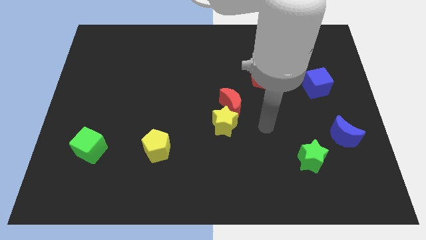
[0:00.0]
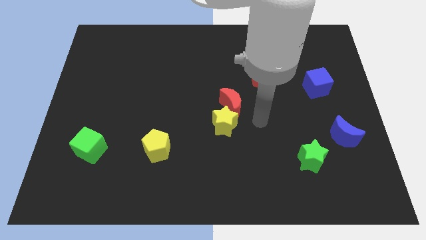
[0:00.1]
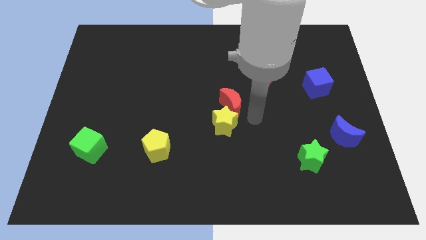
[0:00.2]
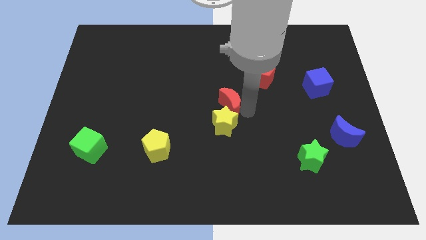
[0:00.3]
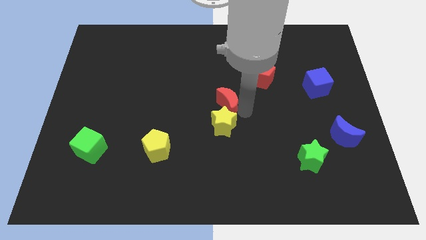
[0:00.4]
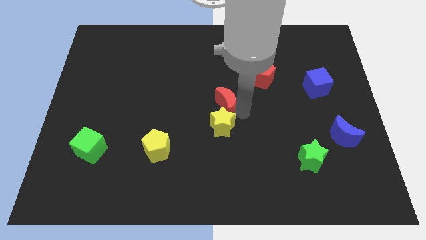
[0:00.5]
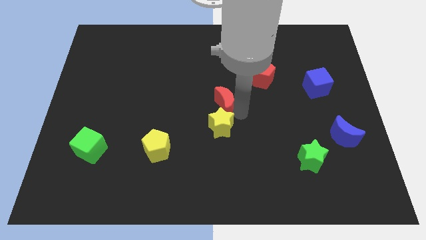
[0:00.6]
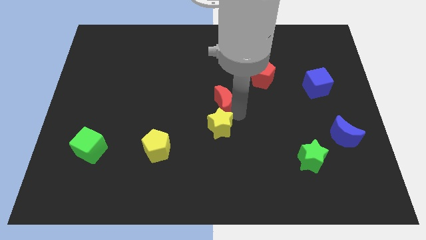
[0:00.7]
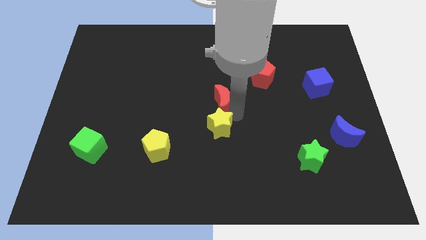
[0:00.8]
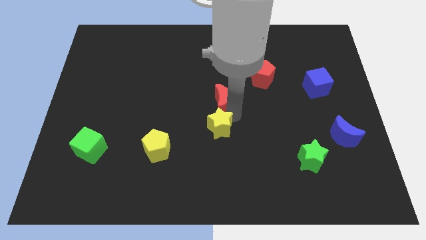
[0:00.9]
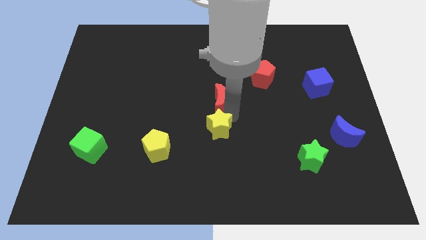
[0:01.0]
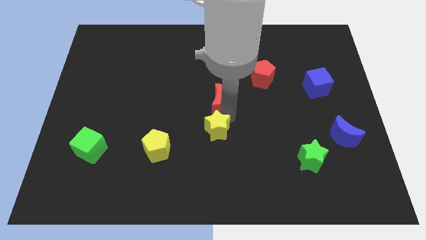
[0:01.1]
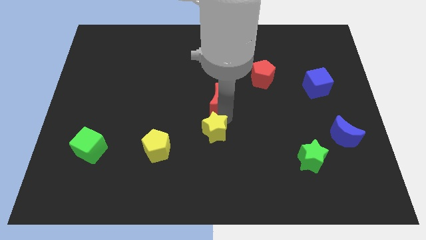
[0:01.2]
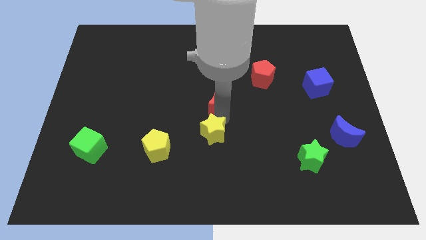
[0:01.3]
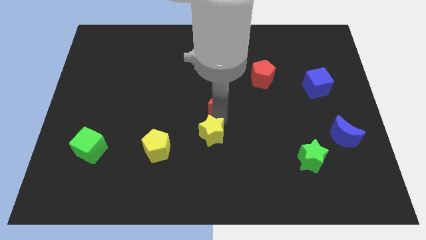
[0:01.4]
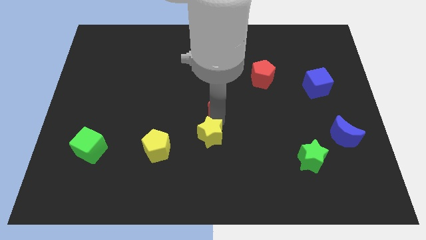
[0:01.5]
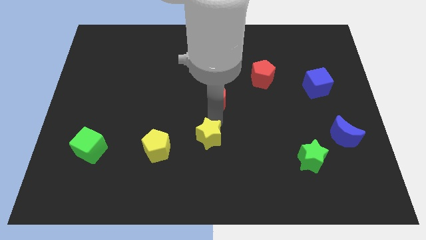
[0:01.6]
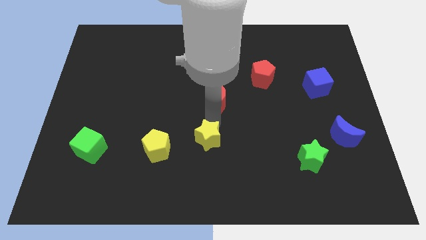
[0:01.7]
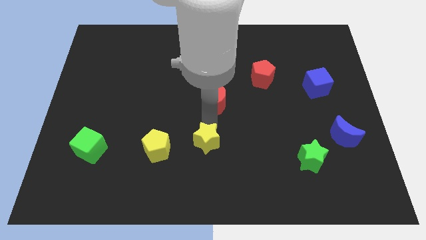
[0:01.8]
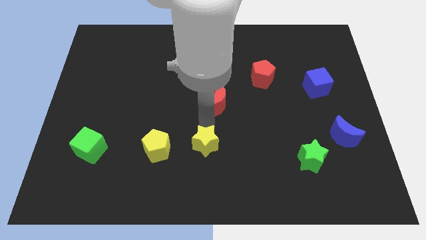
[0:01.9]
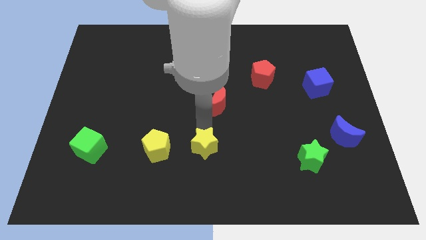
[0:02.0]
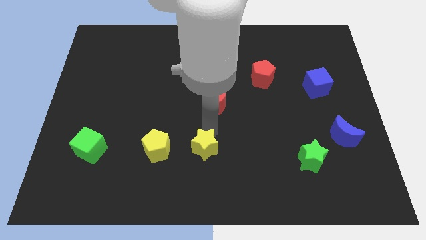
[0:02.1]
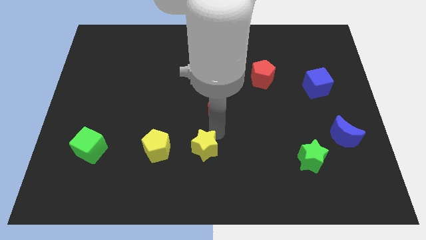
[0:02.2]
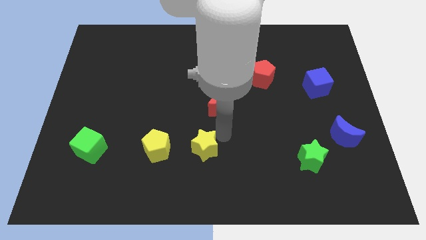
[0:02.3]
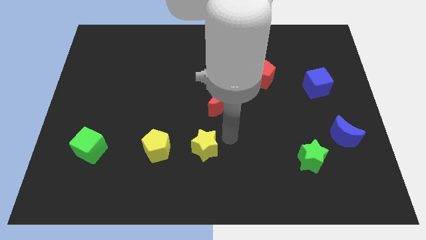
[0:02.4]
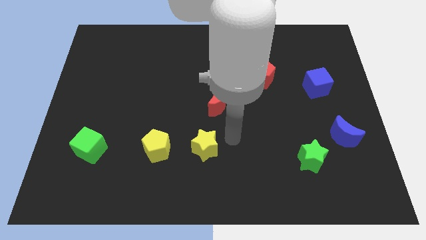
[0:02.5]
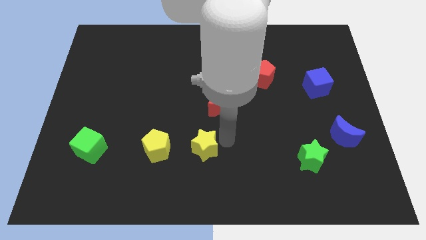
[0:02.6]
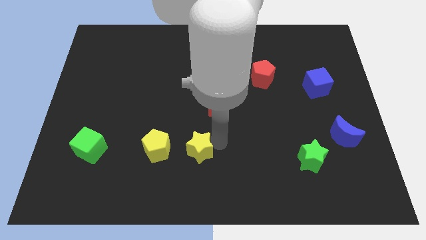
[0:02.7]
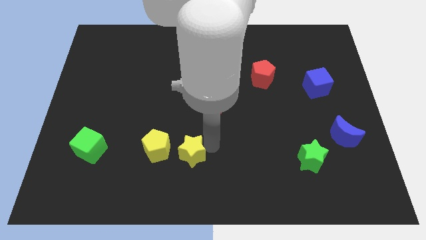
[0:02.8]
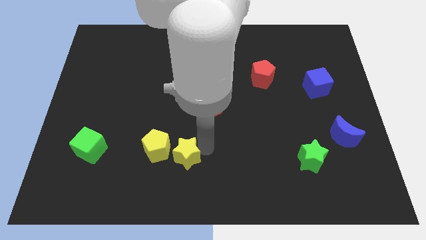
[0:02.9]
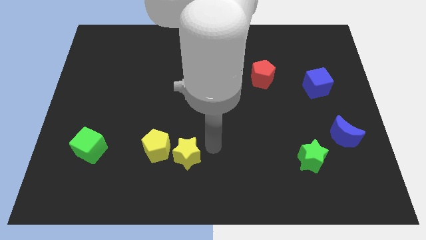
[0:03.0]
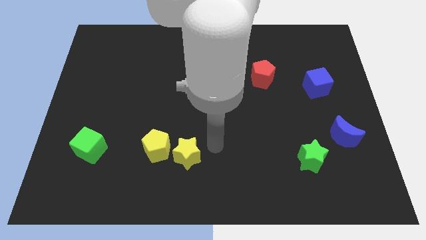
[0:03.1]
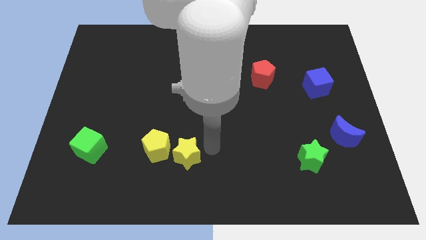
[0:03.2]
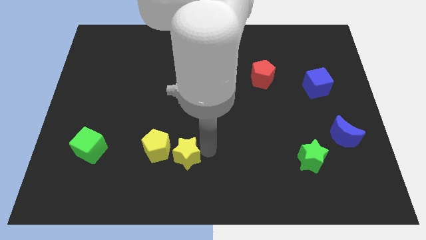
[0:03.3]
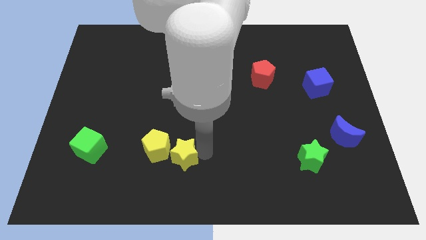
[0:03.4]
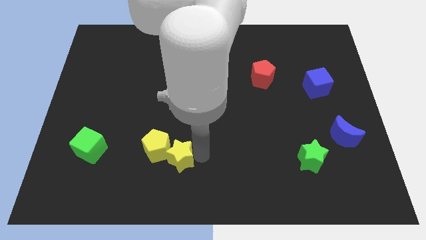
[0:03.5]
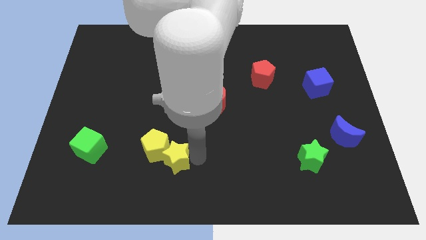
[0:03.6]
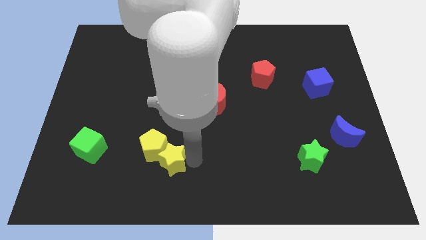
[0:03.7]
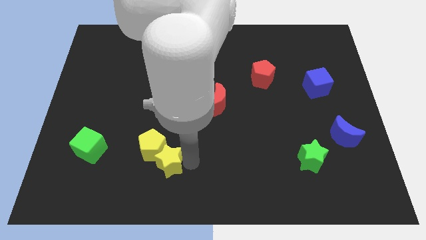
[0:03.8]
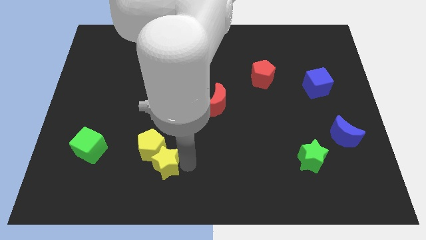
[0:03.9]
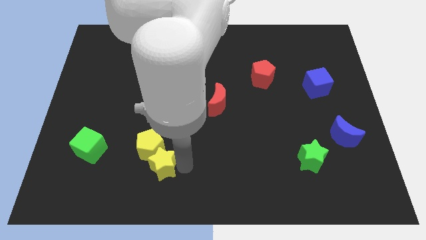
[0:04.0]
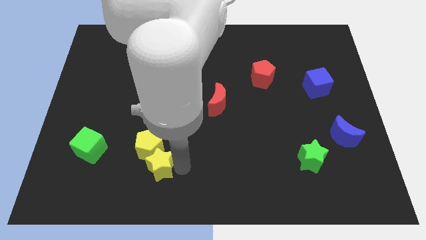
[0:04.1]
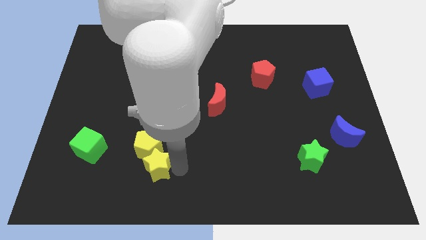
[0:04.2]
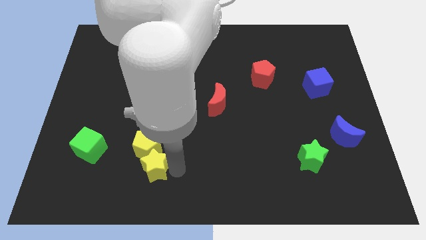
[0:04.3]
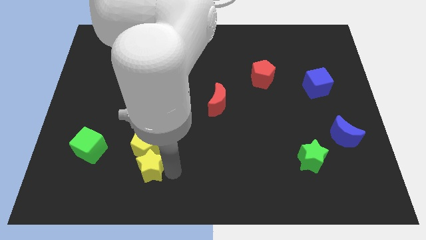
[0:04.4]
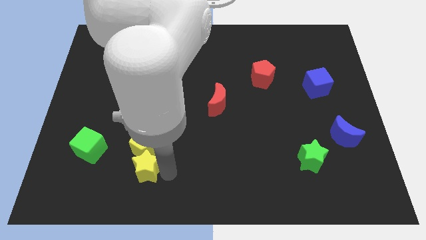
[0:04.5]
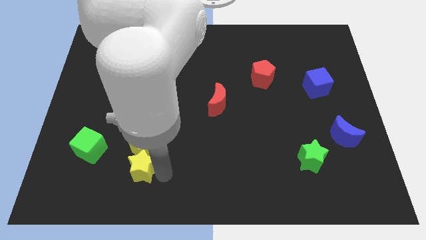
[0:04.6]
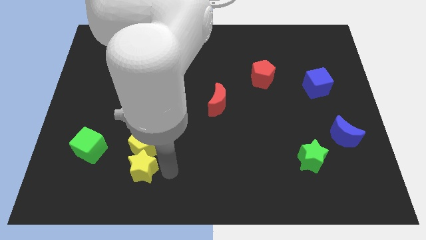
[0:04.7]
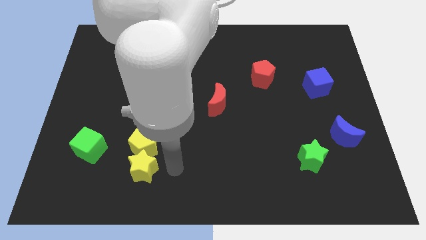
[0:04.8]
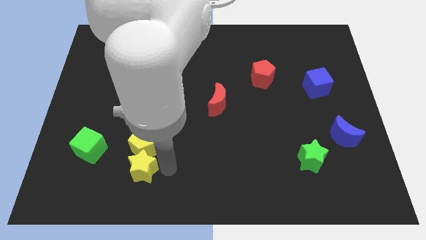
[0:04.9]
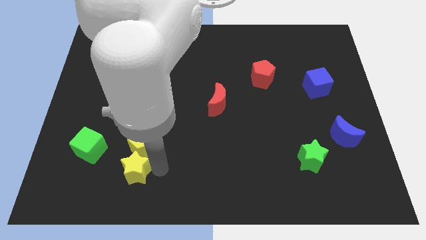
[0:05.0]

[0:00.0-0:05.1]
move the yellow star to the bottom right of the green cube

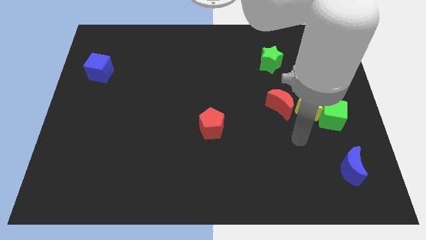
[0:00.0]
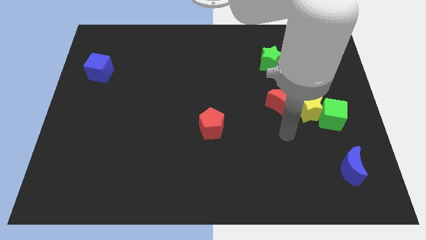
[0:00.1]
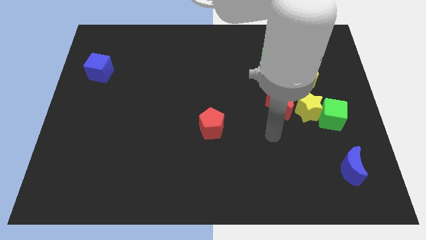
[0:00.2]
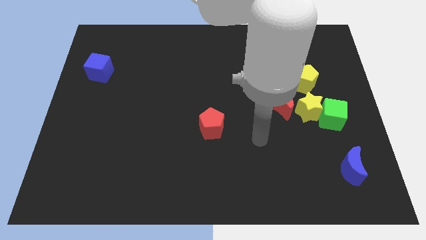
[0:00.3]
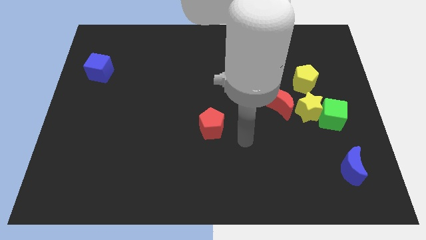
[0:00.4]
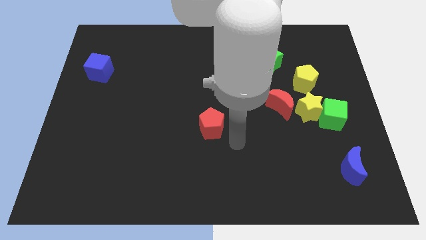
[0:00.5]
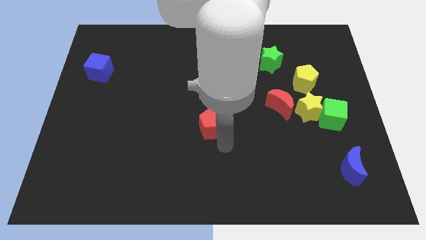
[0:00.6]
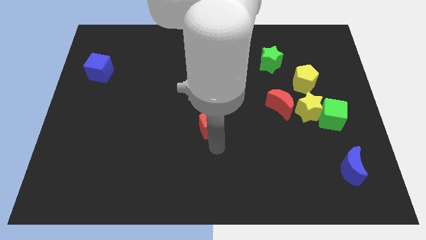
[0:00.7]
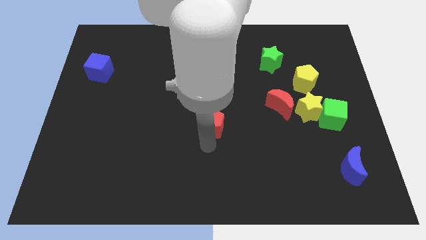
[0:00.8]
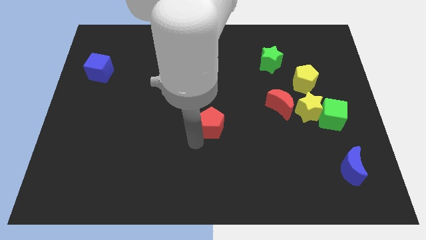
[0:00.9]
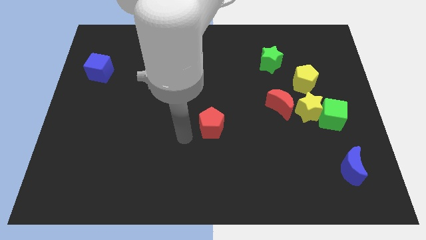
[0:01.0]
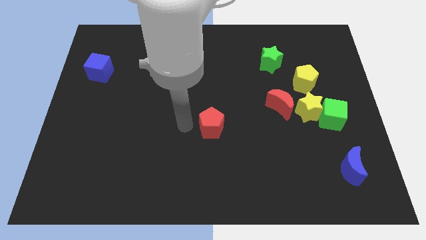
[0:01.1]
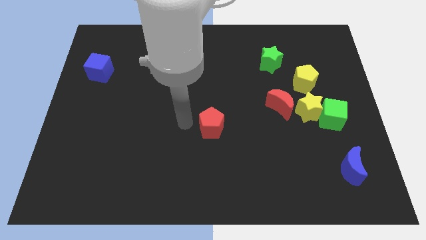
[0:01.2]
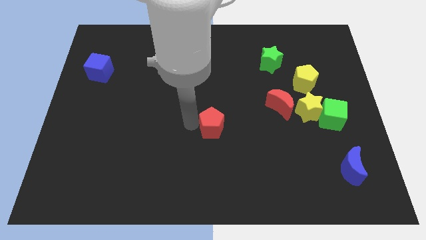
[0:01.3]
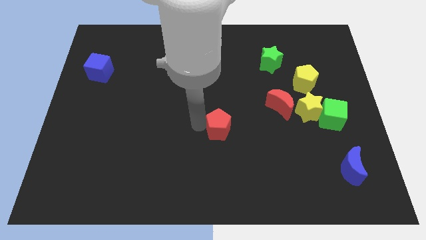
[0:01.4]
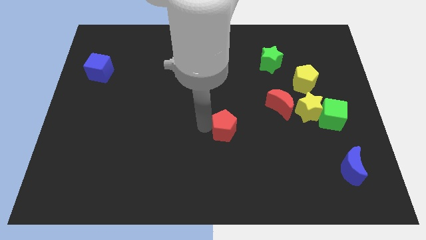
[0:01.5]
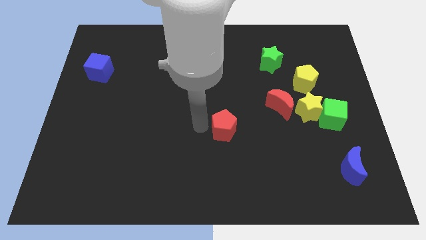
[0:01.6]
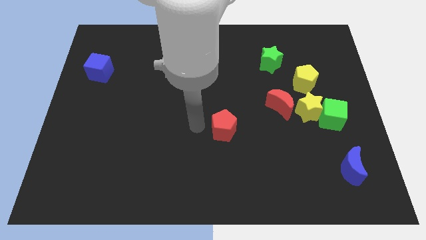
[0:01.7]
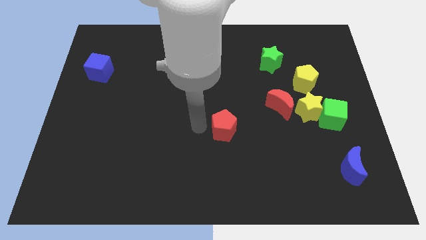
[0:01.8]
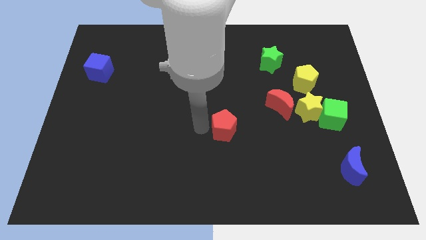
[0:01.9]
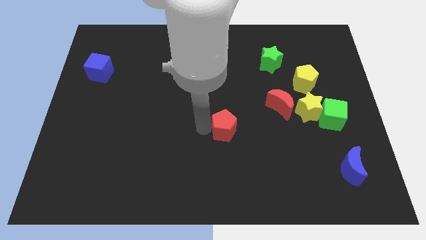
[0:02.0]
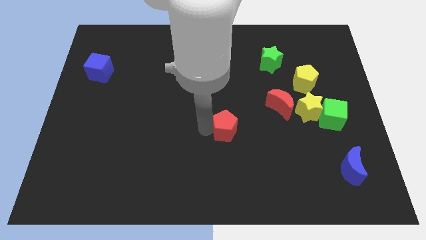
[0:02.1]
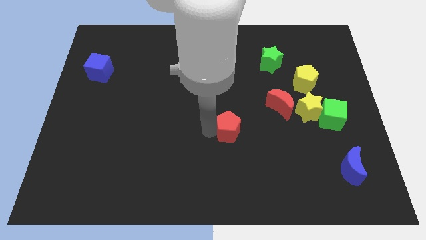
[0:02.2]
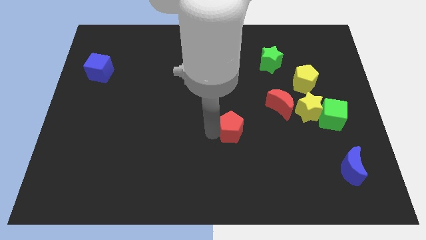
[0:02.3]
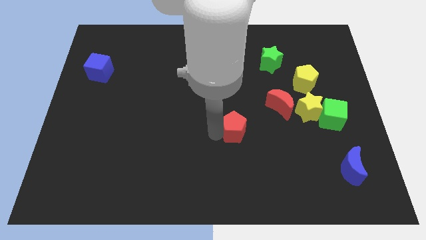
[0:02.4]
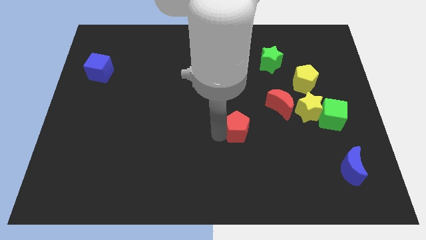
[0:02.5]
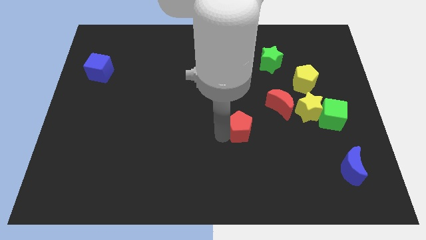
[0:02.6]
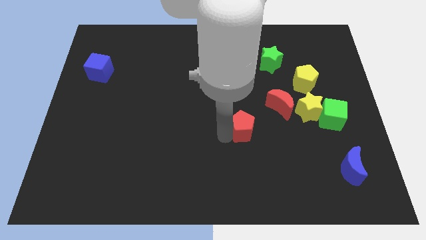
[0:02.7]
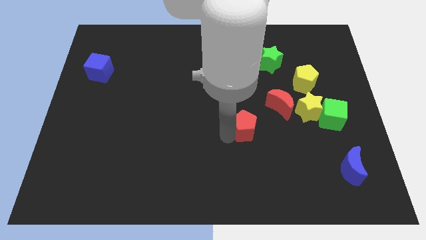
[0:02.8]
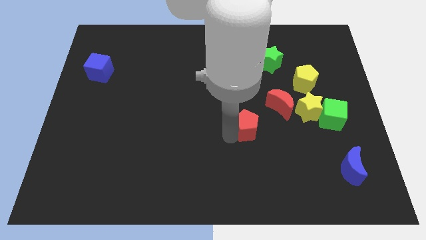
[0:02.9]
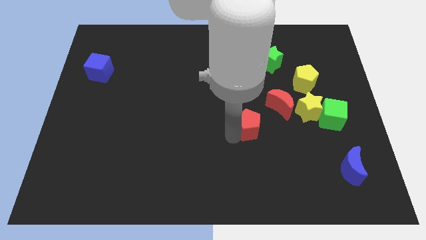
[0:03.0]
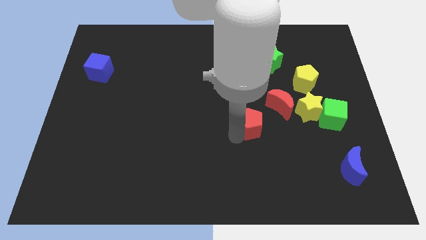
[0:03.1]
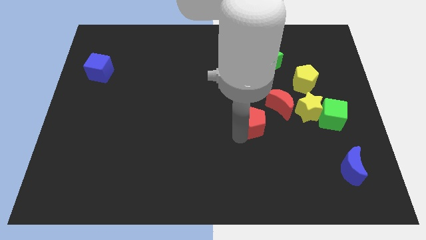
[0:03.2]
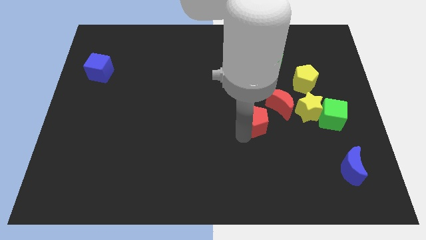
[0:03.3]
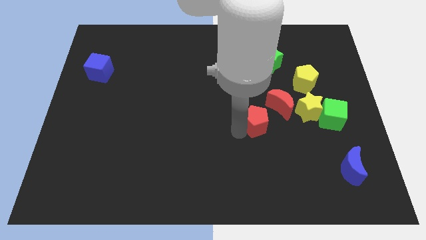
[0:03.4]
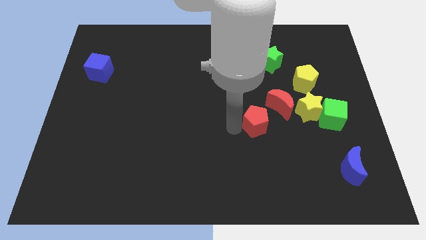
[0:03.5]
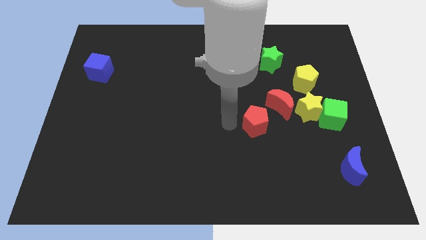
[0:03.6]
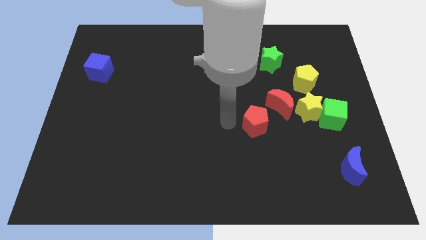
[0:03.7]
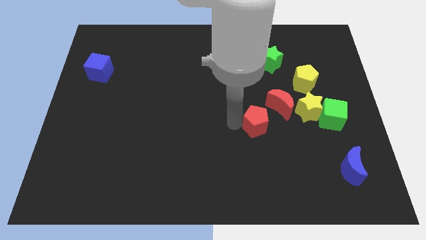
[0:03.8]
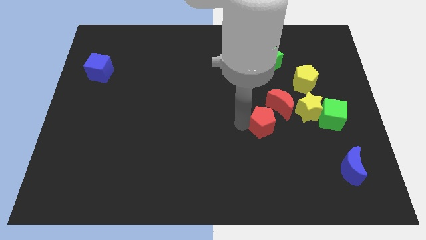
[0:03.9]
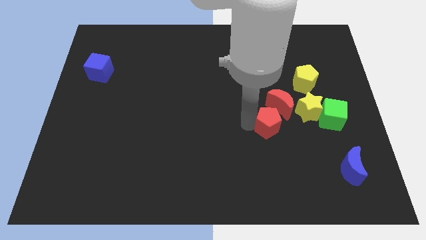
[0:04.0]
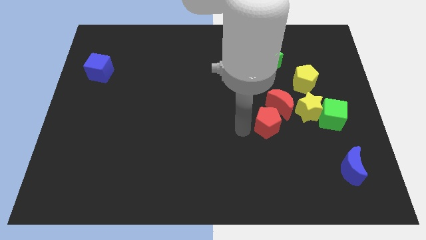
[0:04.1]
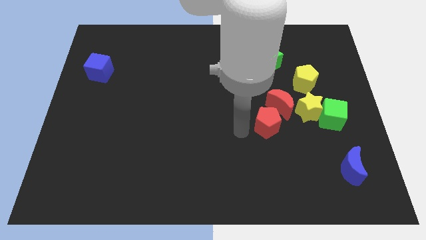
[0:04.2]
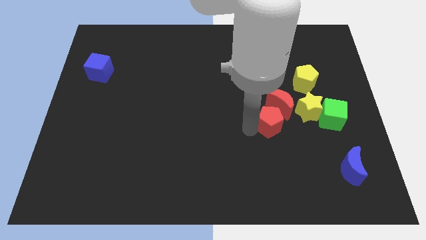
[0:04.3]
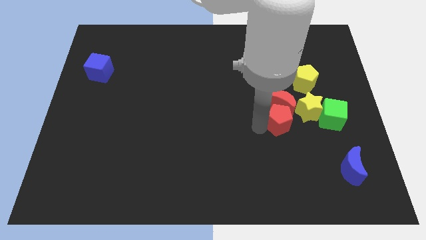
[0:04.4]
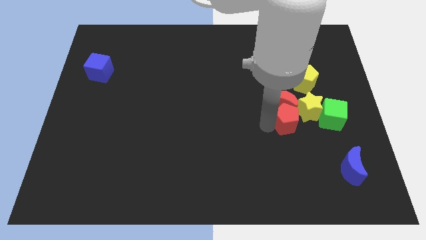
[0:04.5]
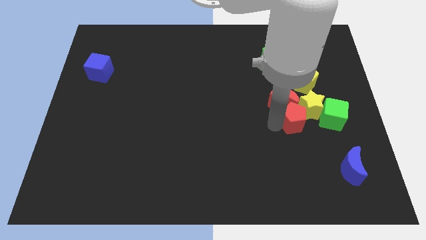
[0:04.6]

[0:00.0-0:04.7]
put the red pentagon to the bottom side of the yellow pentagon
